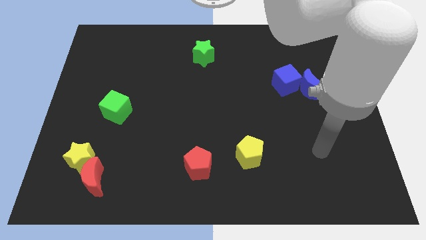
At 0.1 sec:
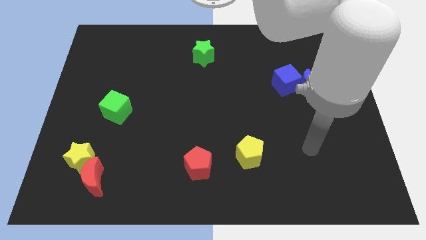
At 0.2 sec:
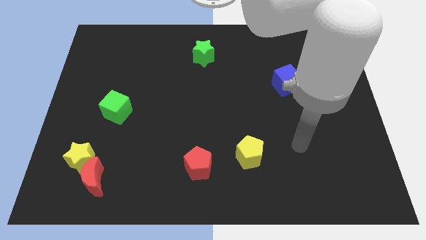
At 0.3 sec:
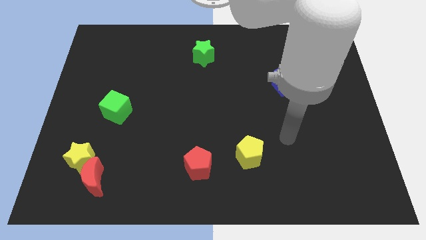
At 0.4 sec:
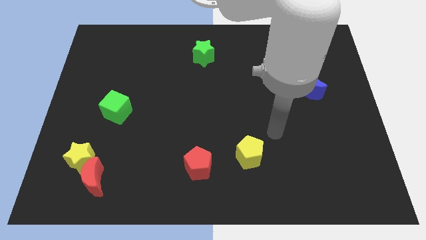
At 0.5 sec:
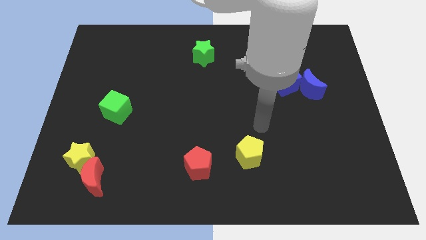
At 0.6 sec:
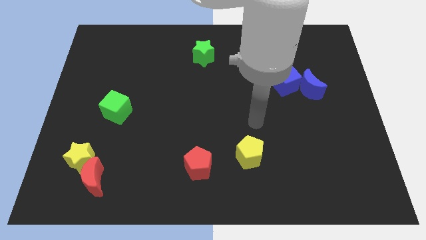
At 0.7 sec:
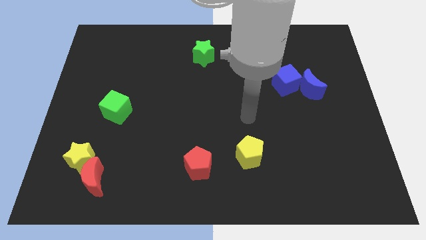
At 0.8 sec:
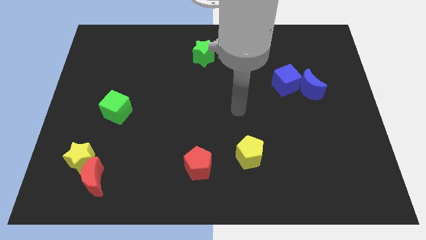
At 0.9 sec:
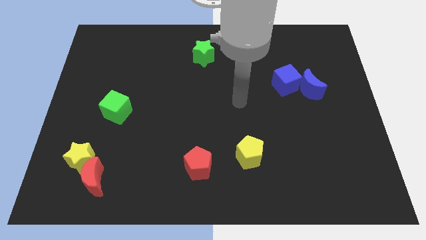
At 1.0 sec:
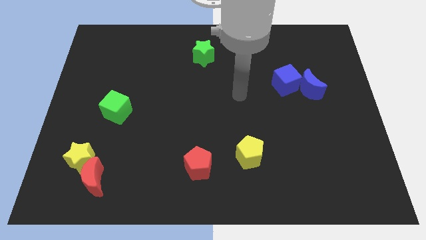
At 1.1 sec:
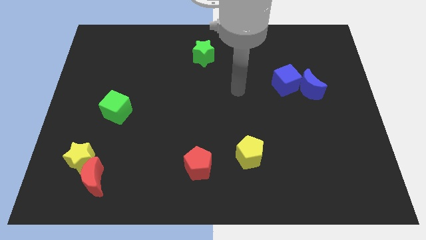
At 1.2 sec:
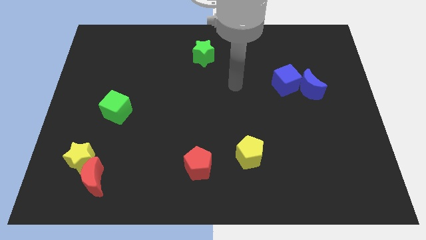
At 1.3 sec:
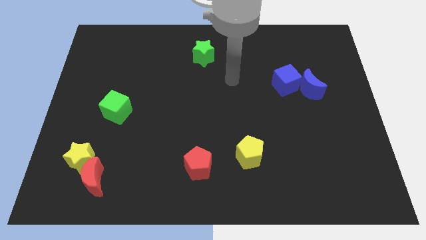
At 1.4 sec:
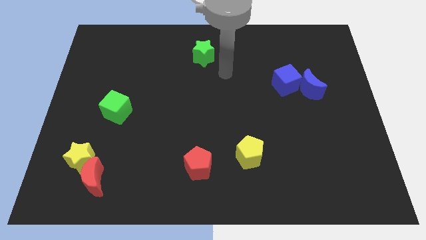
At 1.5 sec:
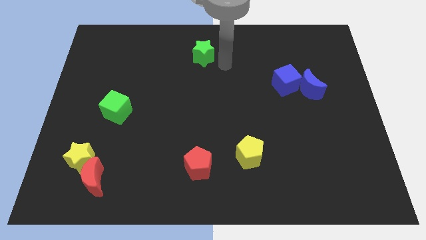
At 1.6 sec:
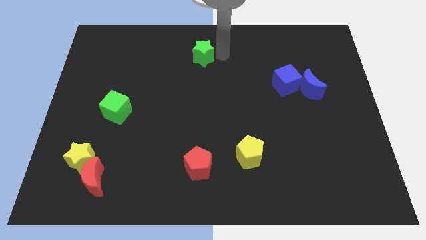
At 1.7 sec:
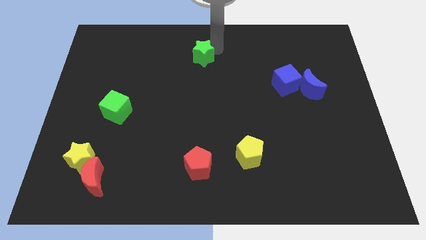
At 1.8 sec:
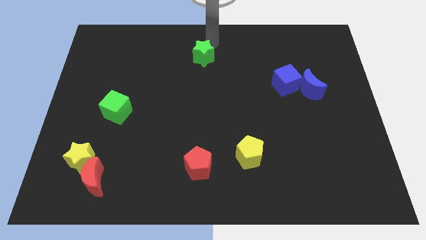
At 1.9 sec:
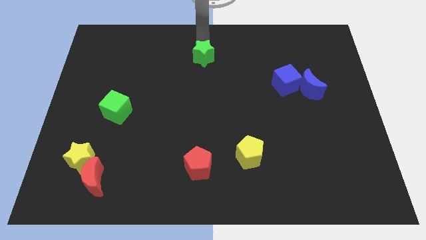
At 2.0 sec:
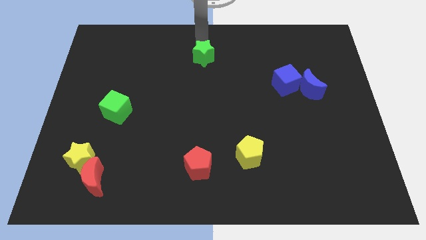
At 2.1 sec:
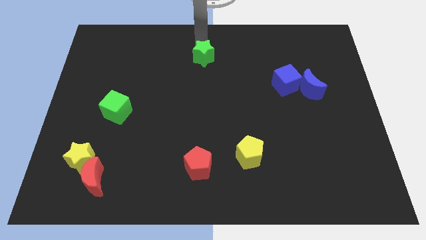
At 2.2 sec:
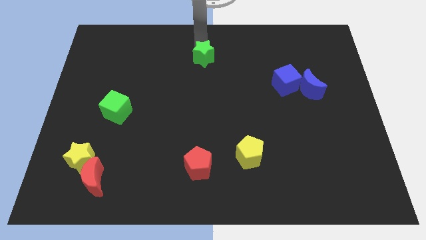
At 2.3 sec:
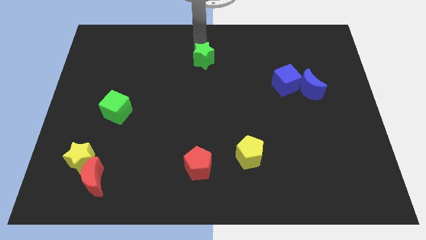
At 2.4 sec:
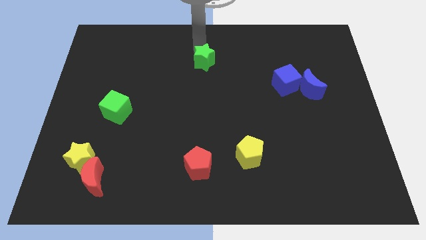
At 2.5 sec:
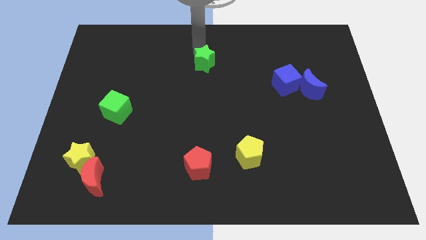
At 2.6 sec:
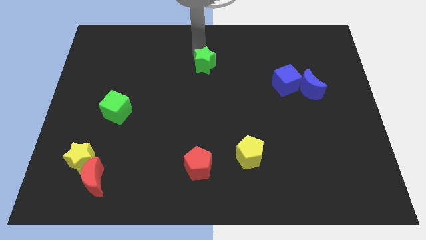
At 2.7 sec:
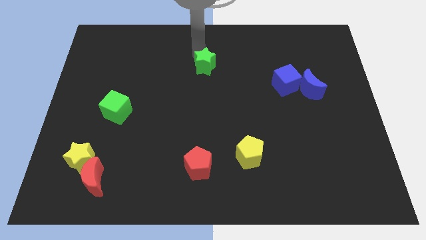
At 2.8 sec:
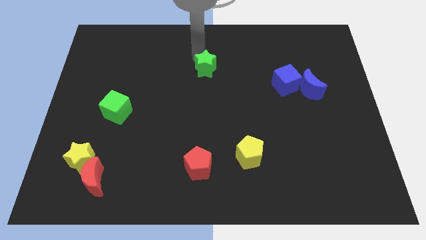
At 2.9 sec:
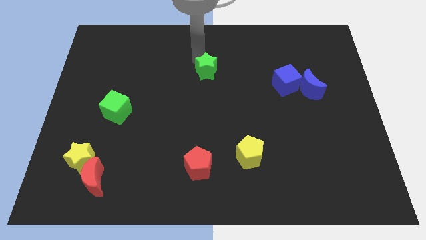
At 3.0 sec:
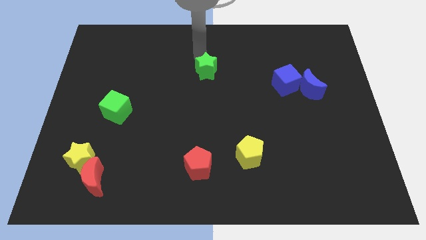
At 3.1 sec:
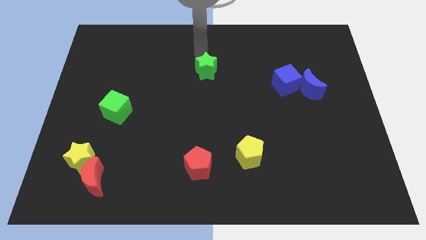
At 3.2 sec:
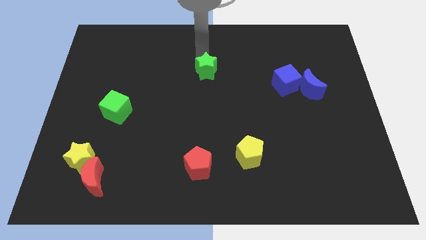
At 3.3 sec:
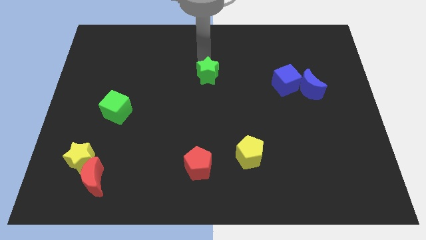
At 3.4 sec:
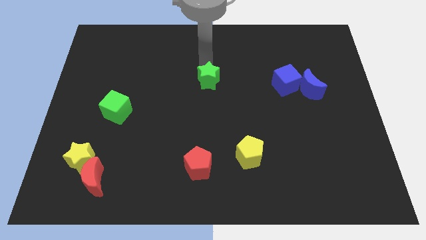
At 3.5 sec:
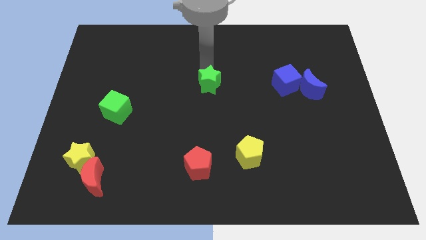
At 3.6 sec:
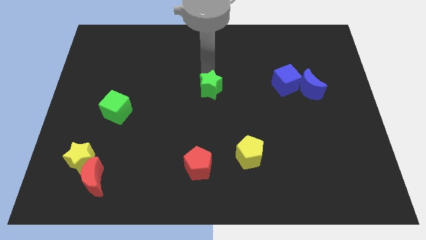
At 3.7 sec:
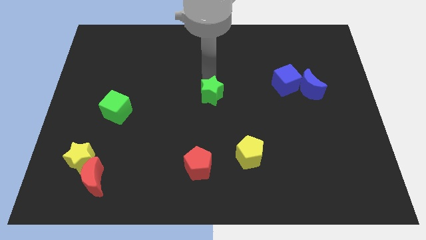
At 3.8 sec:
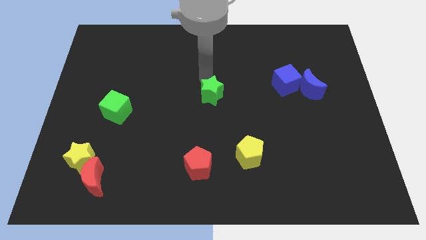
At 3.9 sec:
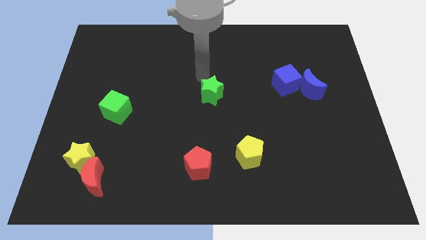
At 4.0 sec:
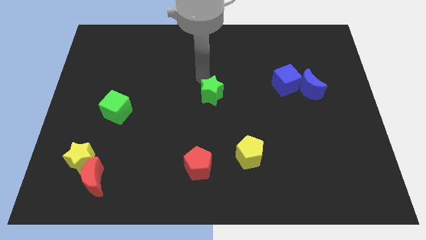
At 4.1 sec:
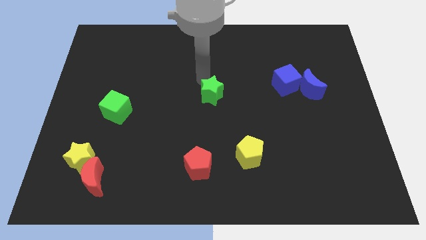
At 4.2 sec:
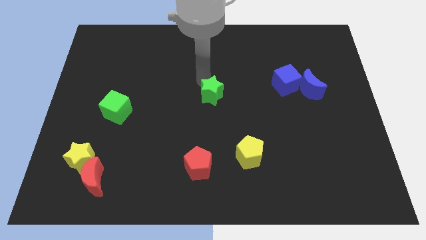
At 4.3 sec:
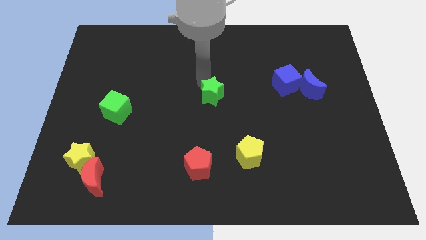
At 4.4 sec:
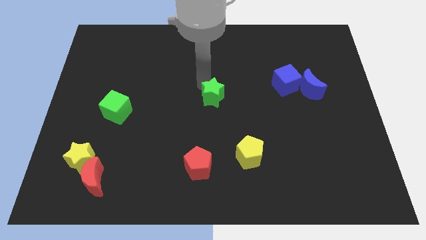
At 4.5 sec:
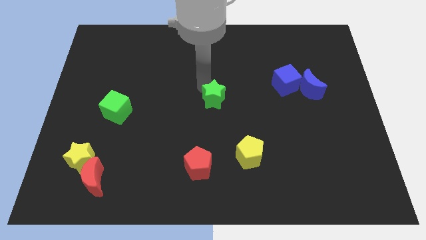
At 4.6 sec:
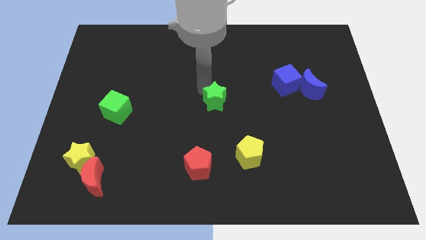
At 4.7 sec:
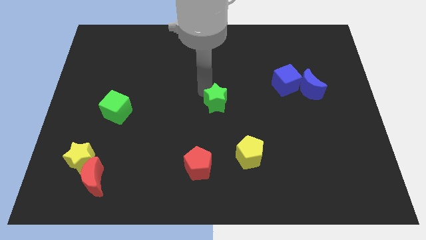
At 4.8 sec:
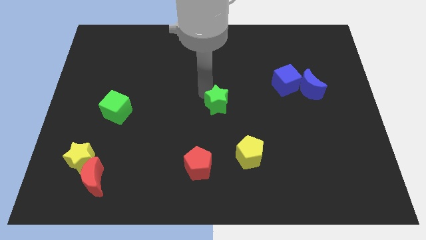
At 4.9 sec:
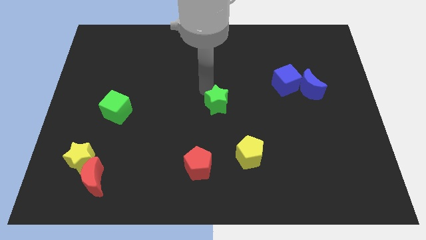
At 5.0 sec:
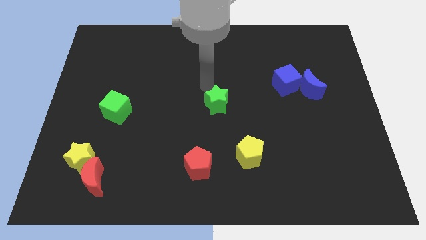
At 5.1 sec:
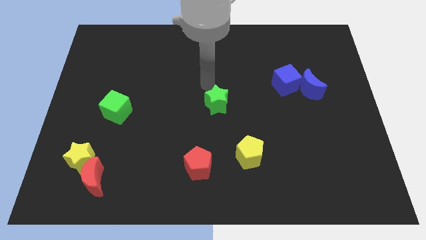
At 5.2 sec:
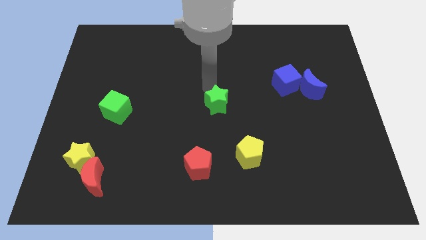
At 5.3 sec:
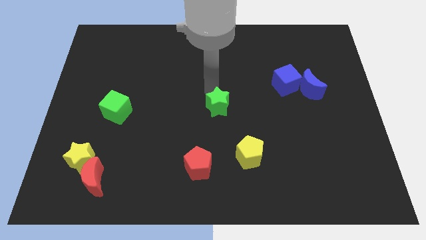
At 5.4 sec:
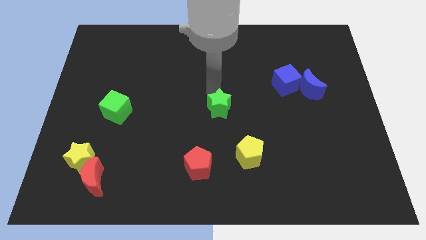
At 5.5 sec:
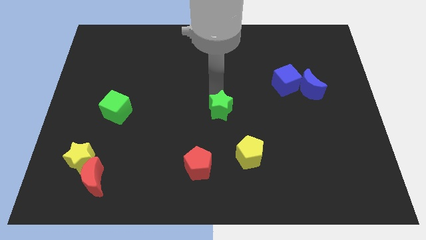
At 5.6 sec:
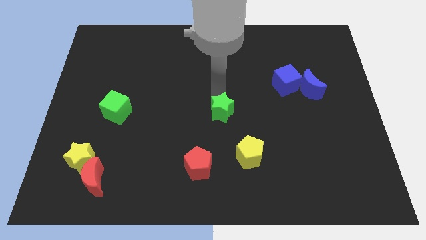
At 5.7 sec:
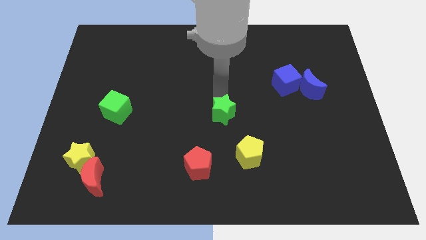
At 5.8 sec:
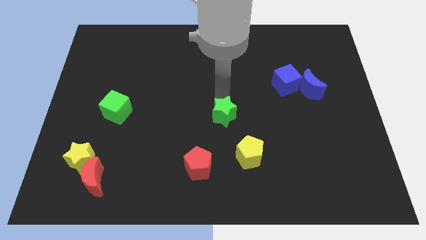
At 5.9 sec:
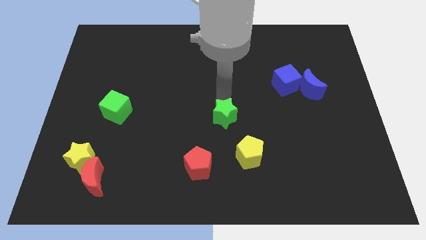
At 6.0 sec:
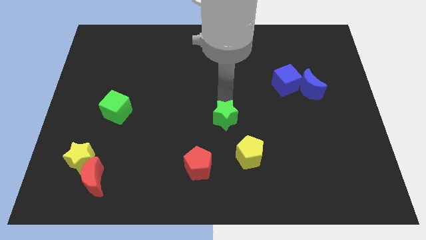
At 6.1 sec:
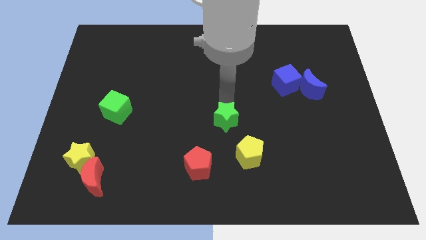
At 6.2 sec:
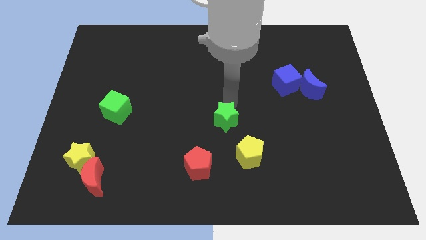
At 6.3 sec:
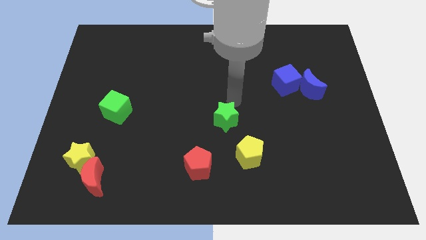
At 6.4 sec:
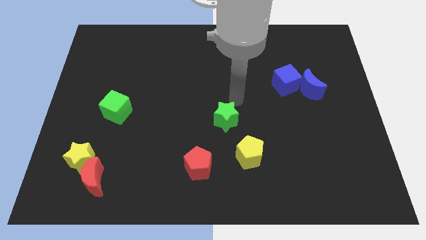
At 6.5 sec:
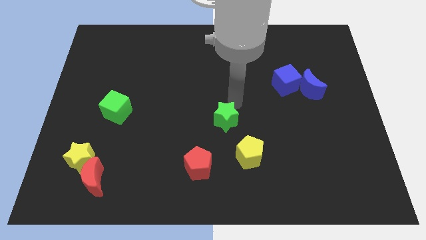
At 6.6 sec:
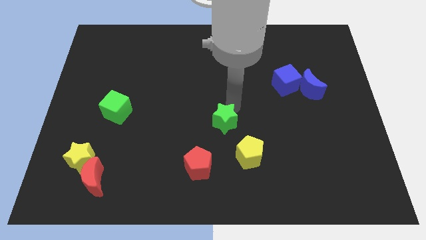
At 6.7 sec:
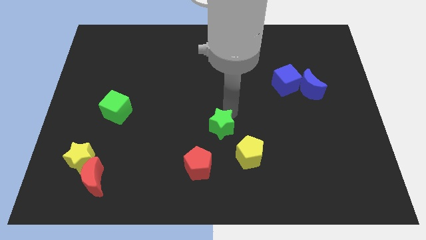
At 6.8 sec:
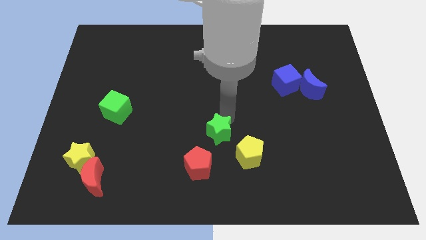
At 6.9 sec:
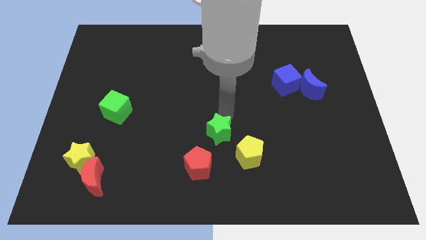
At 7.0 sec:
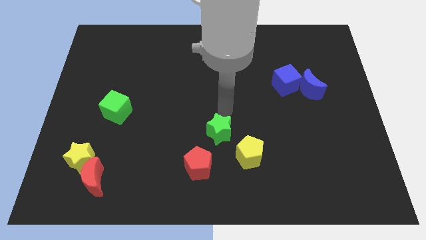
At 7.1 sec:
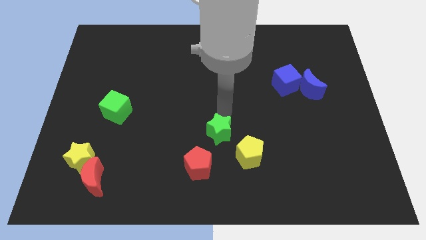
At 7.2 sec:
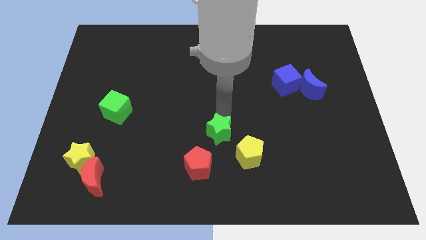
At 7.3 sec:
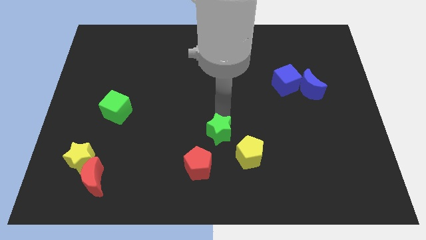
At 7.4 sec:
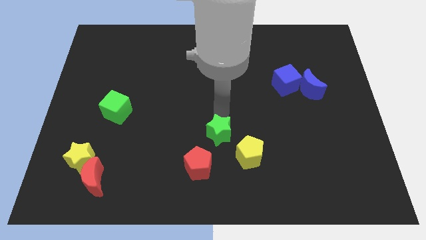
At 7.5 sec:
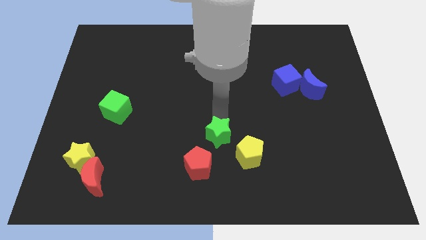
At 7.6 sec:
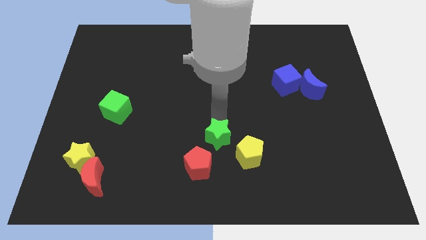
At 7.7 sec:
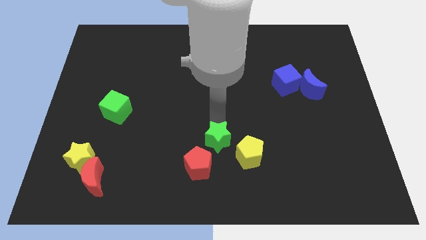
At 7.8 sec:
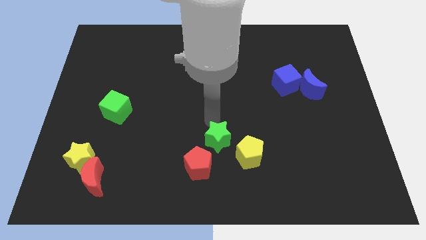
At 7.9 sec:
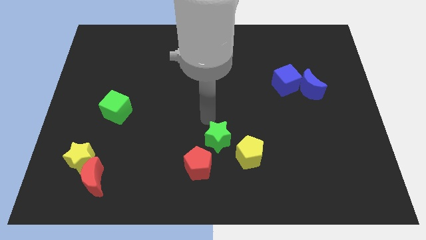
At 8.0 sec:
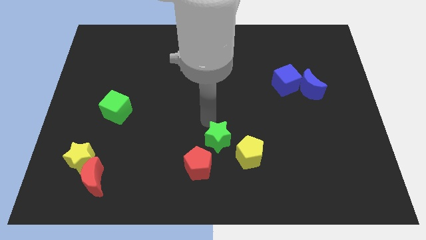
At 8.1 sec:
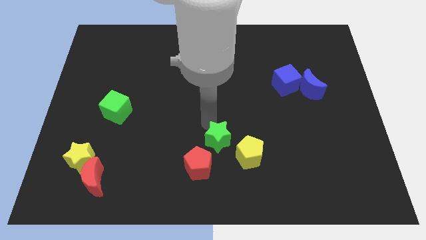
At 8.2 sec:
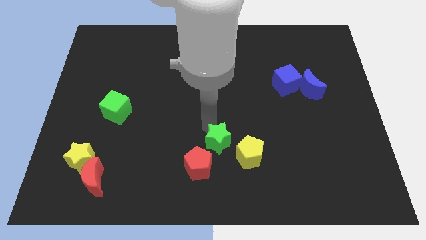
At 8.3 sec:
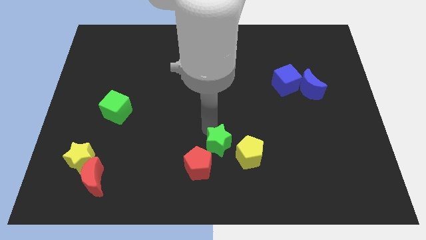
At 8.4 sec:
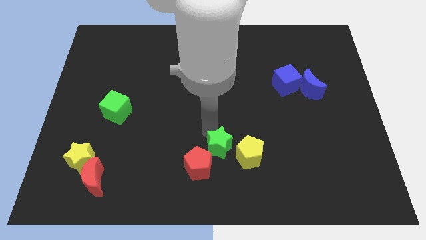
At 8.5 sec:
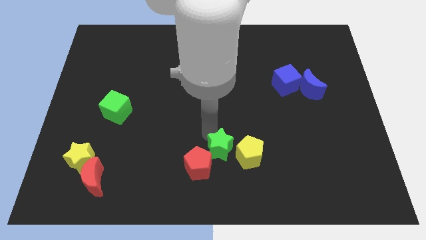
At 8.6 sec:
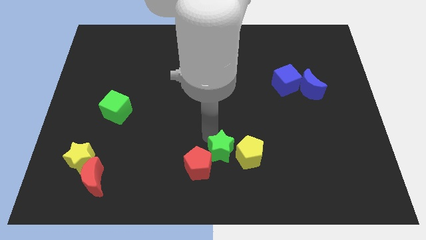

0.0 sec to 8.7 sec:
slide the green star diagonally down and to the left of the yellow pentagon
